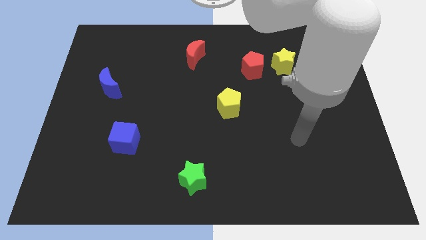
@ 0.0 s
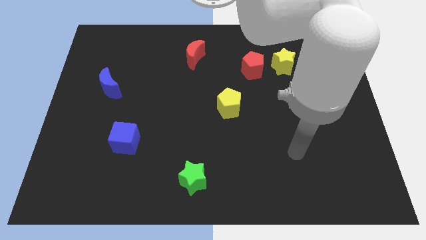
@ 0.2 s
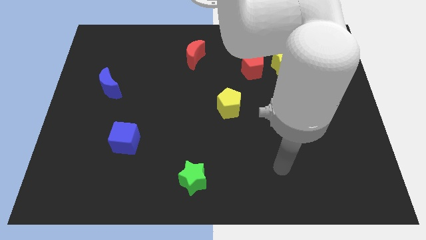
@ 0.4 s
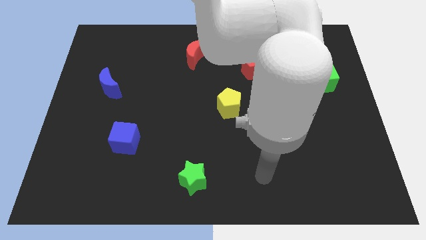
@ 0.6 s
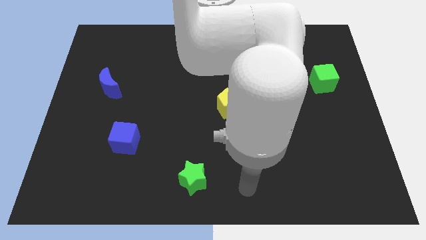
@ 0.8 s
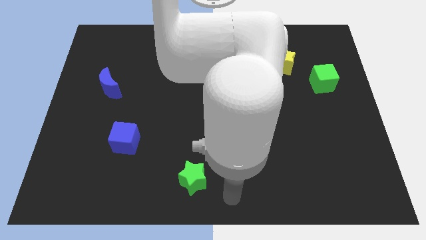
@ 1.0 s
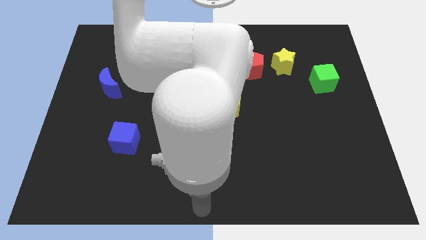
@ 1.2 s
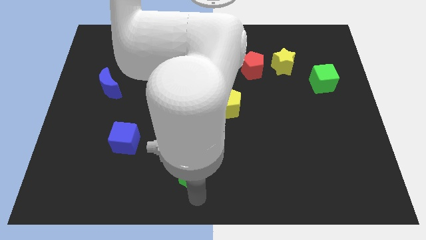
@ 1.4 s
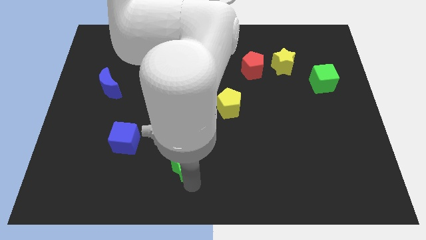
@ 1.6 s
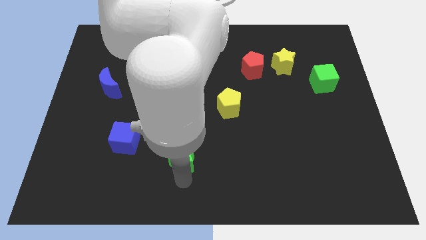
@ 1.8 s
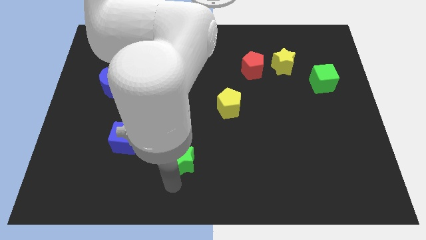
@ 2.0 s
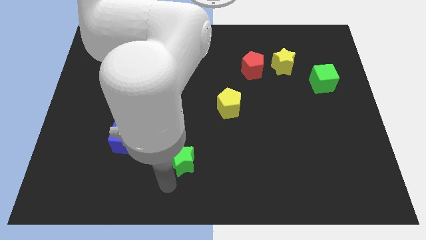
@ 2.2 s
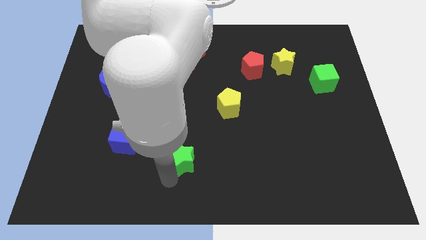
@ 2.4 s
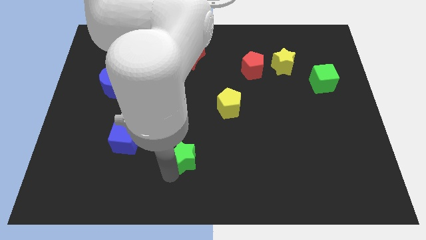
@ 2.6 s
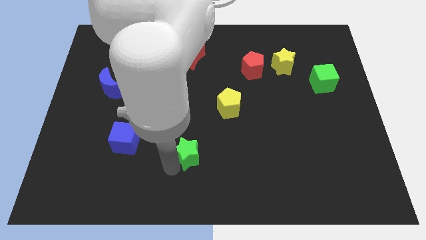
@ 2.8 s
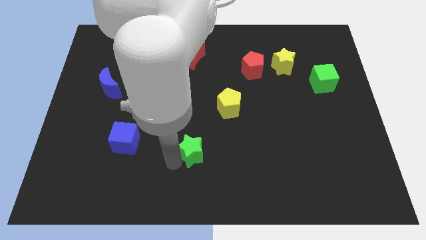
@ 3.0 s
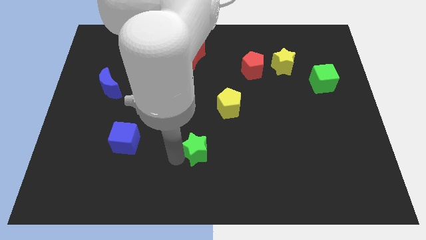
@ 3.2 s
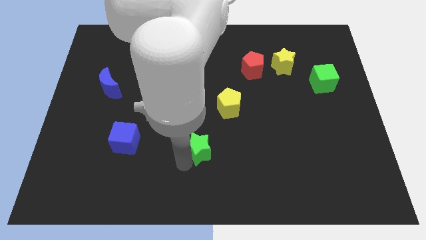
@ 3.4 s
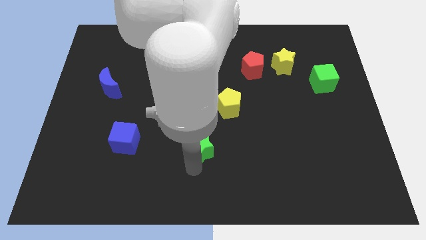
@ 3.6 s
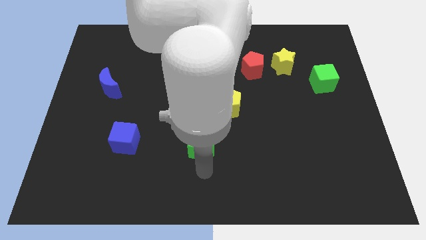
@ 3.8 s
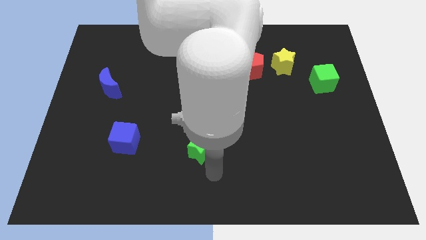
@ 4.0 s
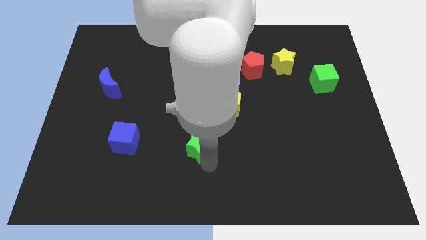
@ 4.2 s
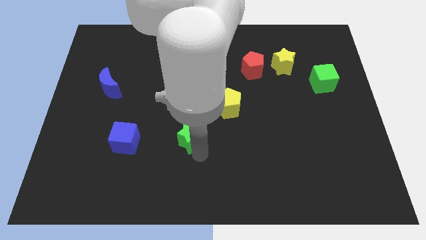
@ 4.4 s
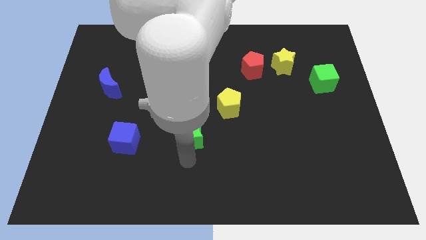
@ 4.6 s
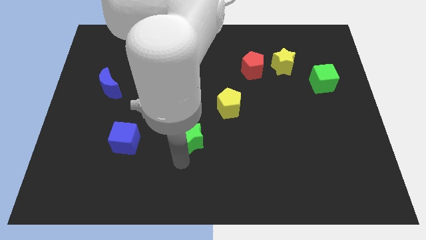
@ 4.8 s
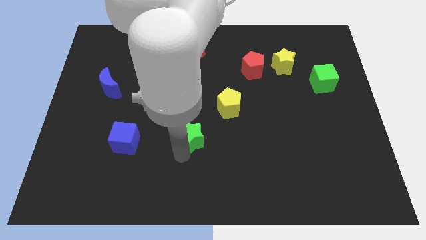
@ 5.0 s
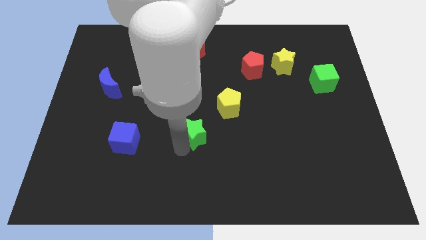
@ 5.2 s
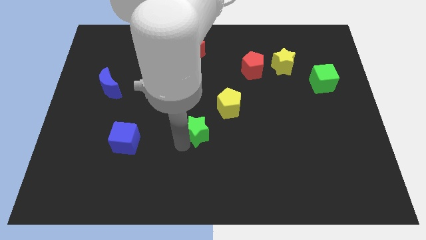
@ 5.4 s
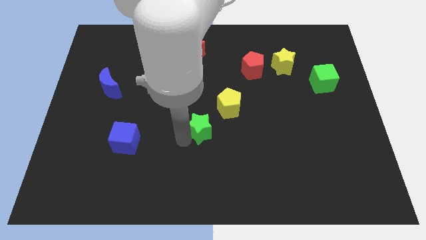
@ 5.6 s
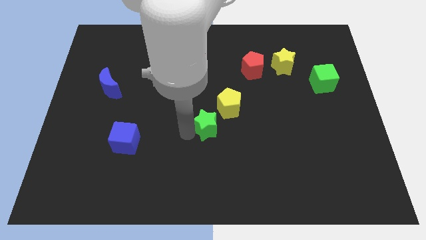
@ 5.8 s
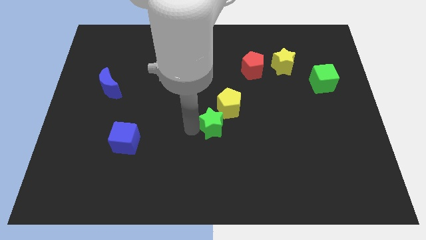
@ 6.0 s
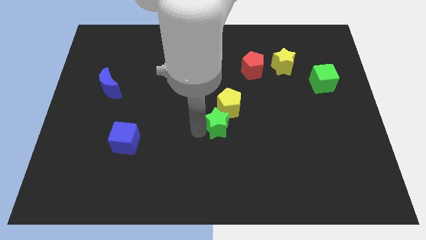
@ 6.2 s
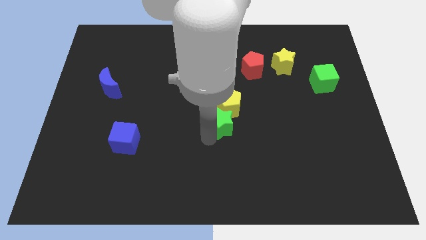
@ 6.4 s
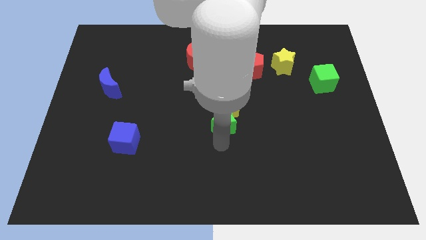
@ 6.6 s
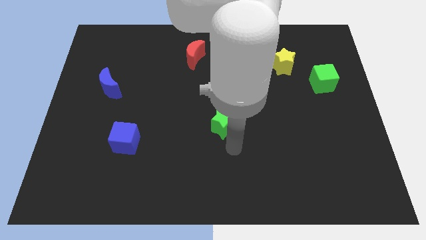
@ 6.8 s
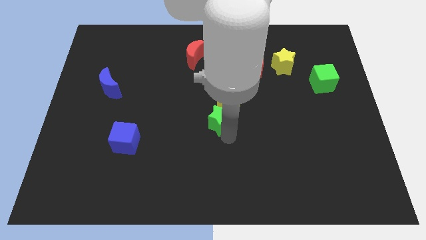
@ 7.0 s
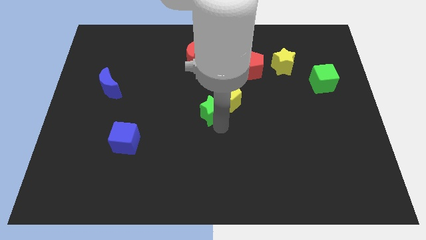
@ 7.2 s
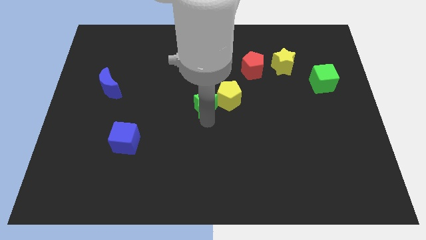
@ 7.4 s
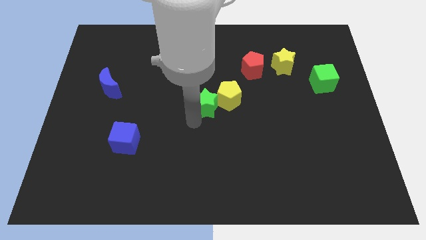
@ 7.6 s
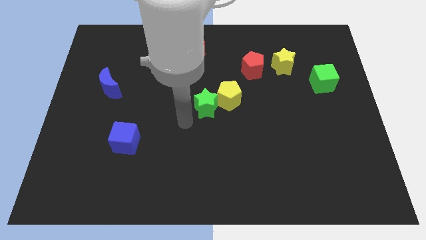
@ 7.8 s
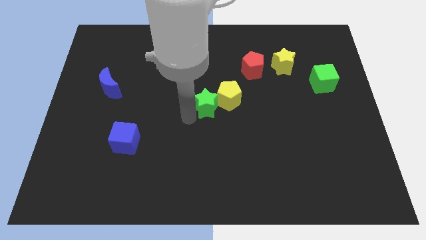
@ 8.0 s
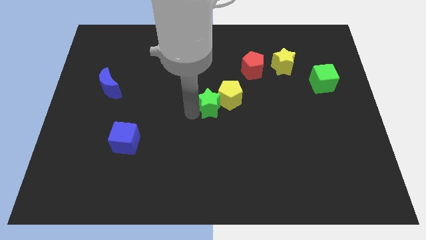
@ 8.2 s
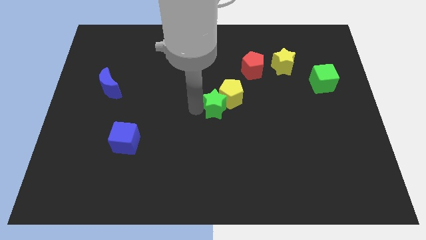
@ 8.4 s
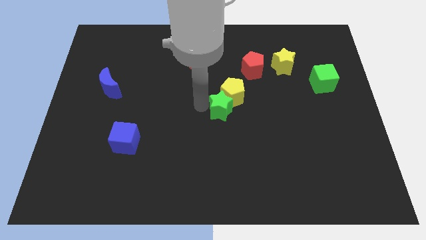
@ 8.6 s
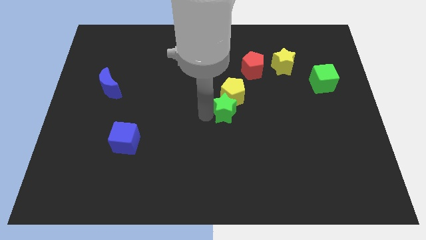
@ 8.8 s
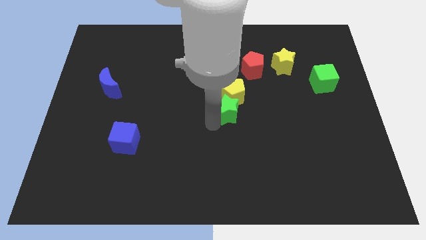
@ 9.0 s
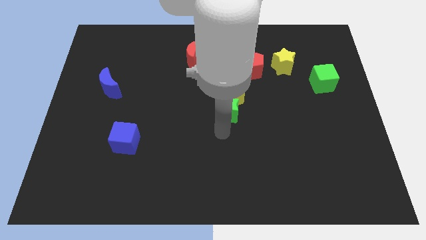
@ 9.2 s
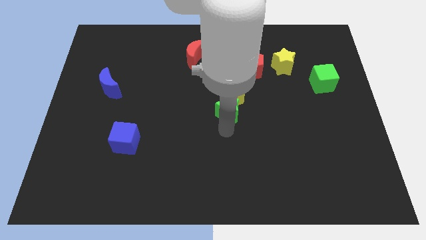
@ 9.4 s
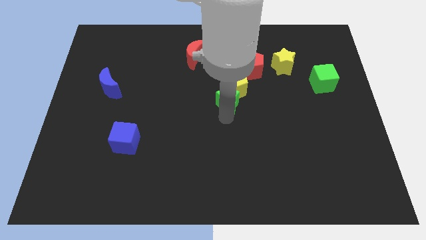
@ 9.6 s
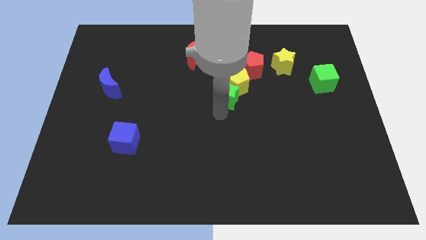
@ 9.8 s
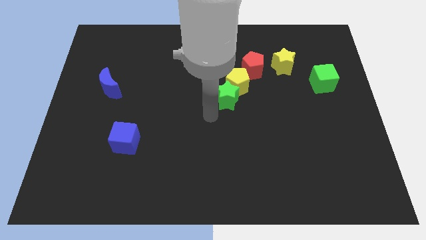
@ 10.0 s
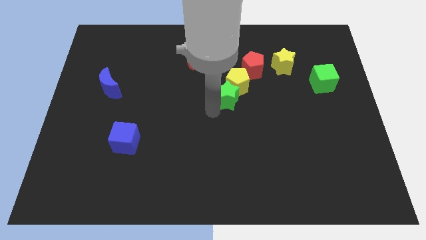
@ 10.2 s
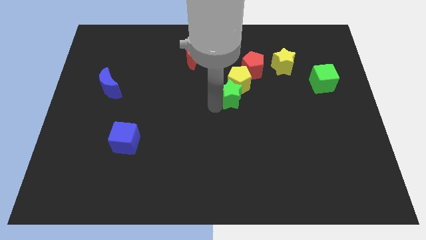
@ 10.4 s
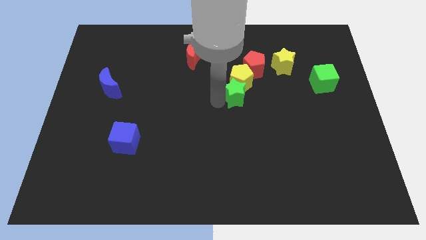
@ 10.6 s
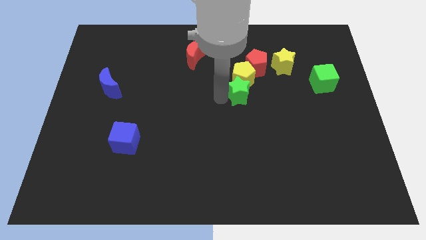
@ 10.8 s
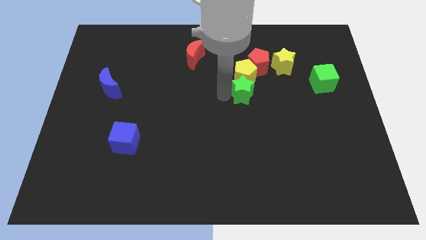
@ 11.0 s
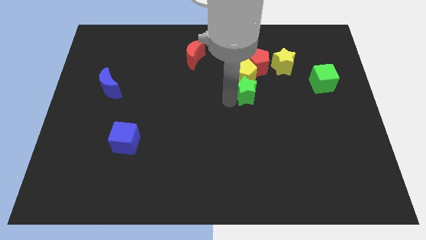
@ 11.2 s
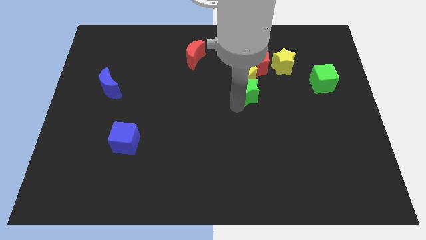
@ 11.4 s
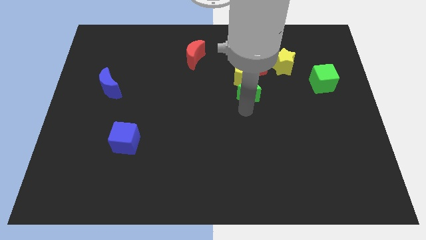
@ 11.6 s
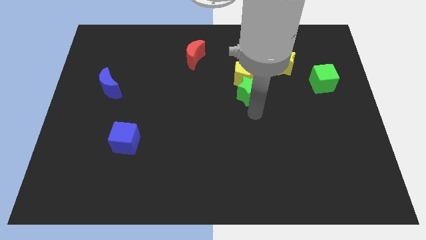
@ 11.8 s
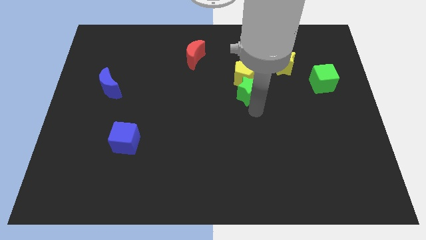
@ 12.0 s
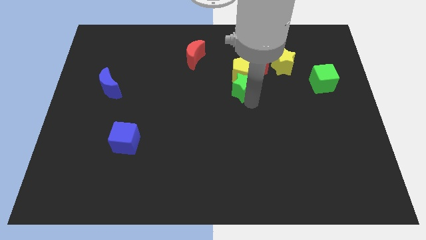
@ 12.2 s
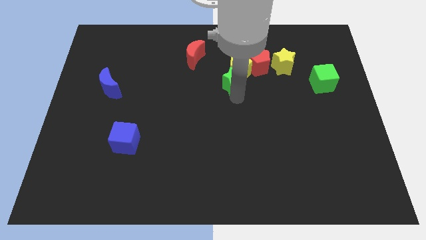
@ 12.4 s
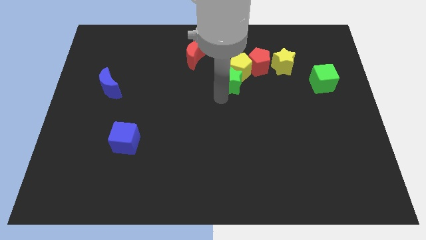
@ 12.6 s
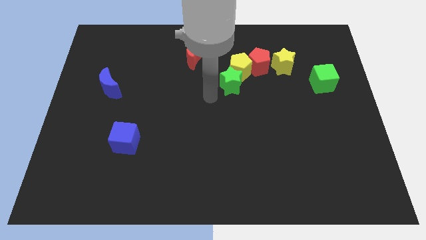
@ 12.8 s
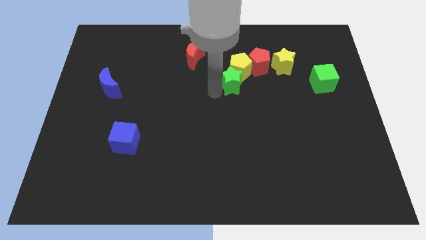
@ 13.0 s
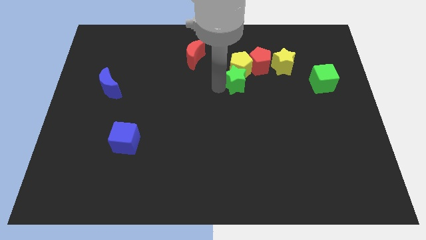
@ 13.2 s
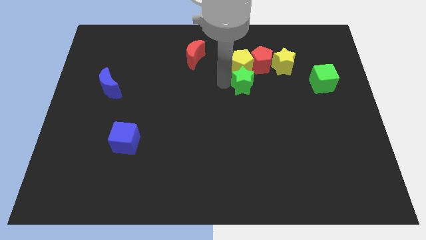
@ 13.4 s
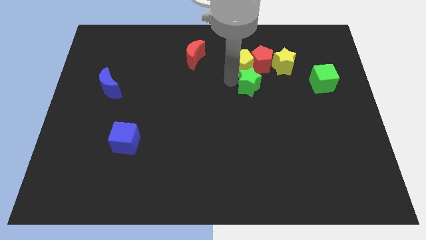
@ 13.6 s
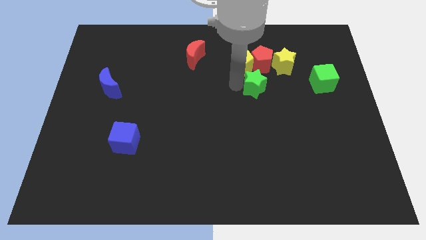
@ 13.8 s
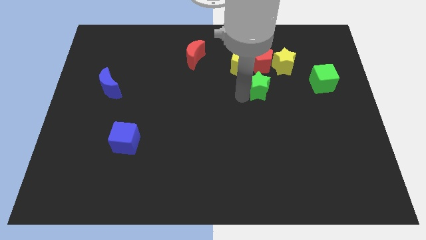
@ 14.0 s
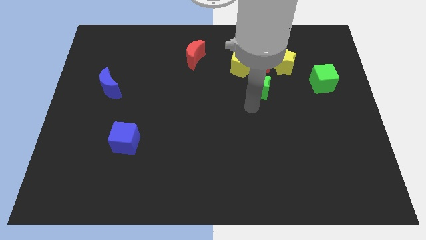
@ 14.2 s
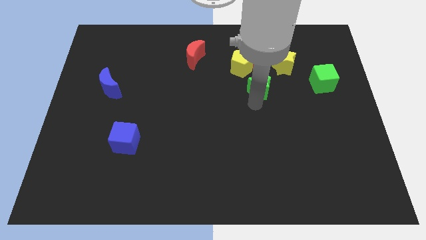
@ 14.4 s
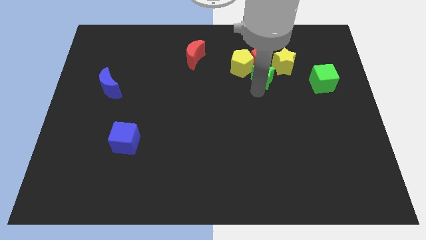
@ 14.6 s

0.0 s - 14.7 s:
put the green star next to the red pentagon
